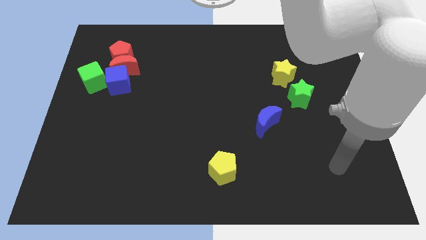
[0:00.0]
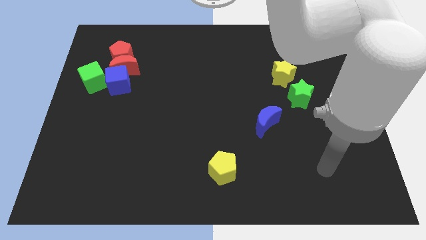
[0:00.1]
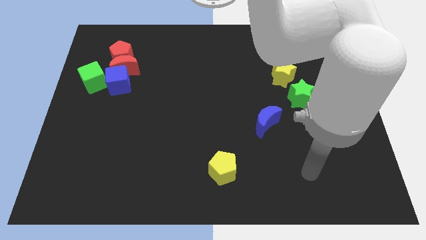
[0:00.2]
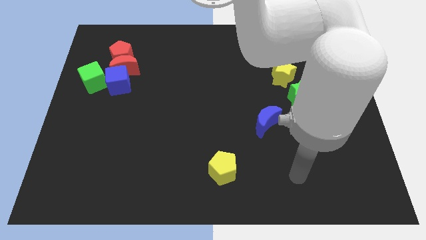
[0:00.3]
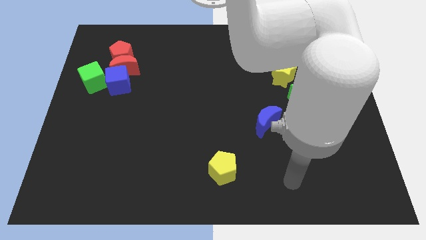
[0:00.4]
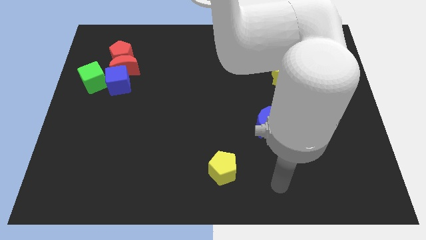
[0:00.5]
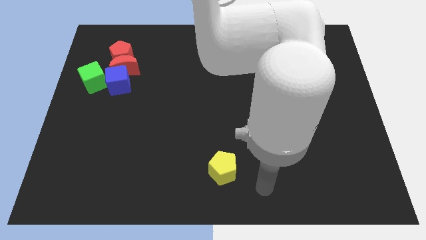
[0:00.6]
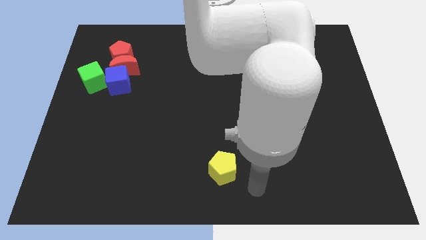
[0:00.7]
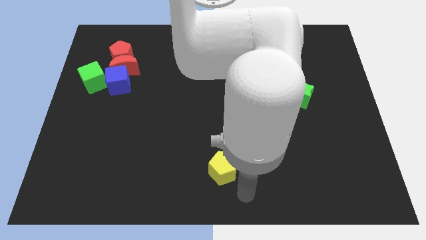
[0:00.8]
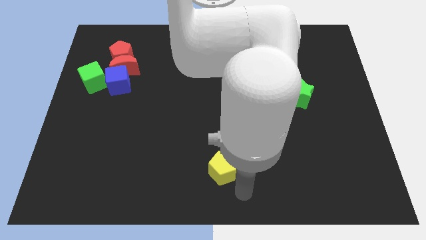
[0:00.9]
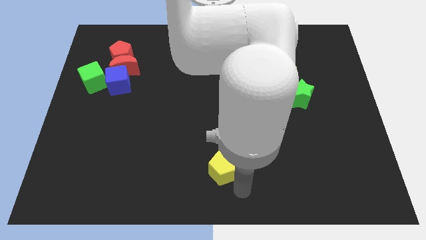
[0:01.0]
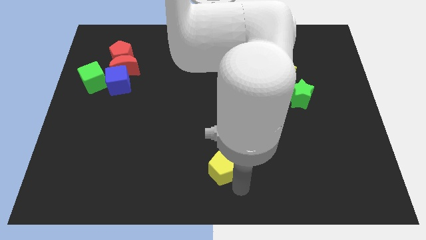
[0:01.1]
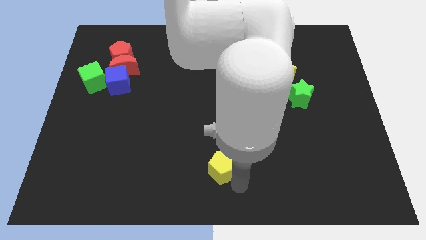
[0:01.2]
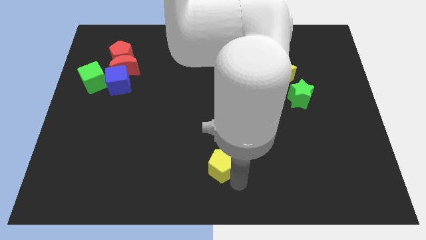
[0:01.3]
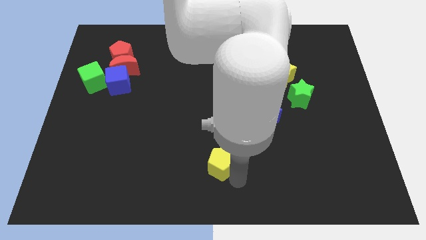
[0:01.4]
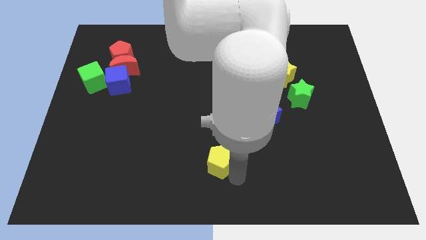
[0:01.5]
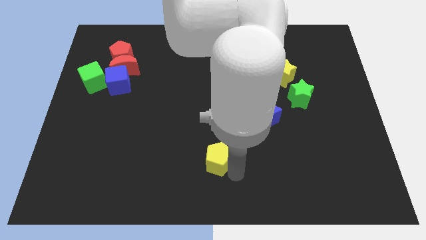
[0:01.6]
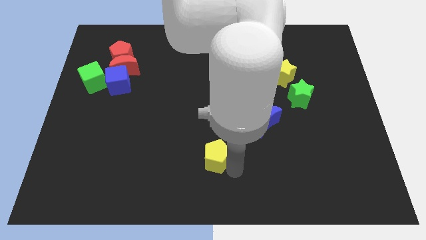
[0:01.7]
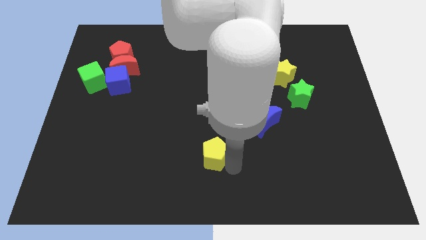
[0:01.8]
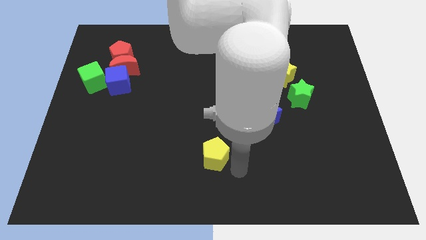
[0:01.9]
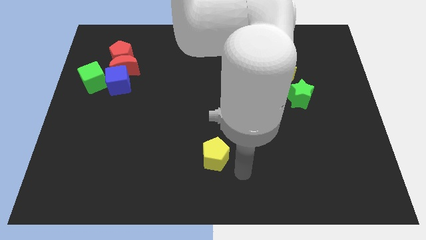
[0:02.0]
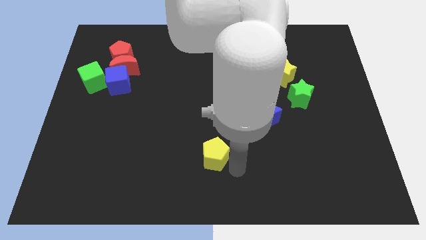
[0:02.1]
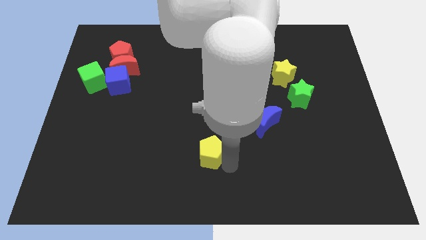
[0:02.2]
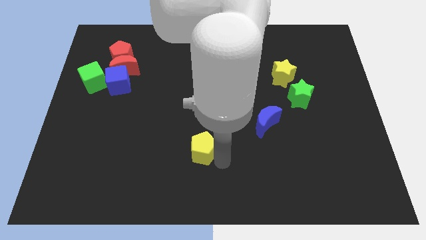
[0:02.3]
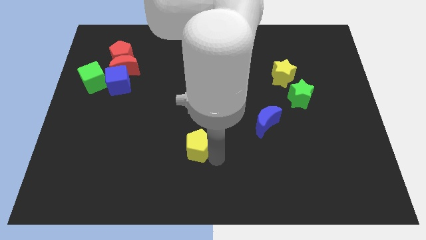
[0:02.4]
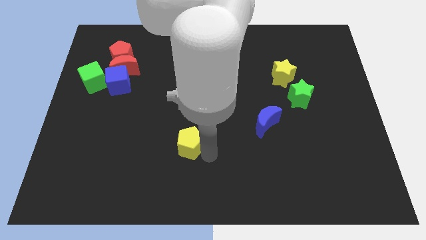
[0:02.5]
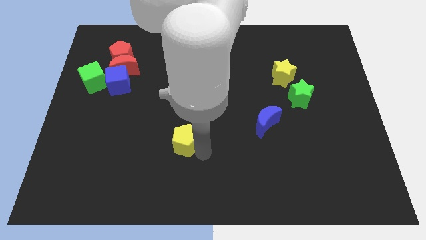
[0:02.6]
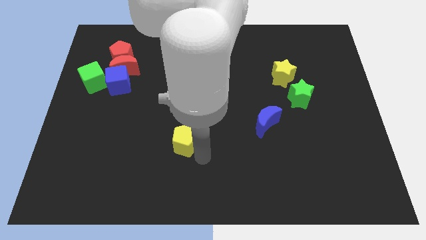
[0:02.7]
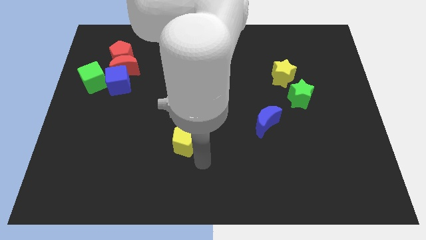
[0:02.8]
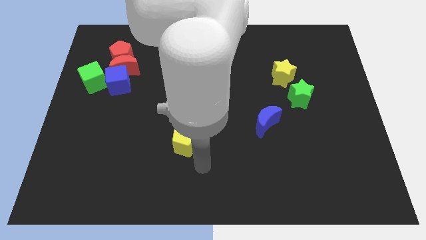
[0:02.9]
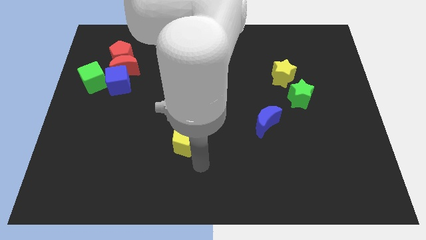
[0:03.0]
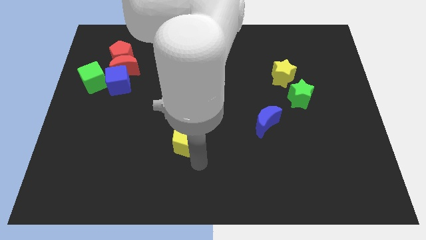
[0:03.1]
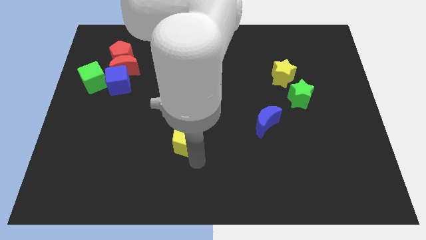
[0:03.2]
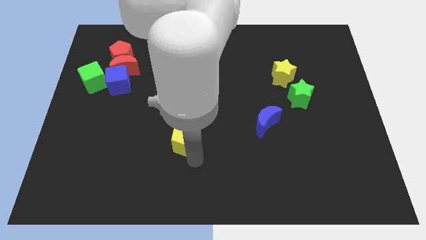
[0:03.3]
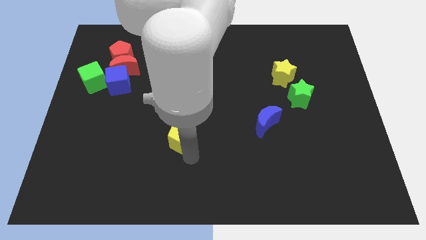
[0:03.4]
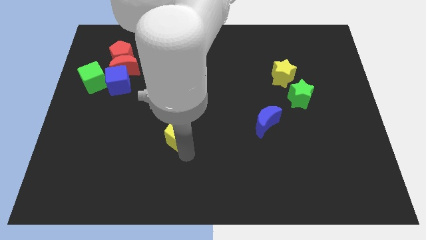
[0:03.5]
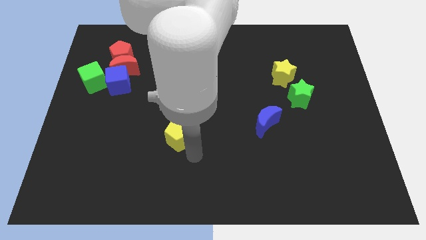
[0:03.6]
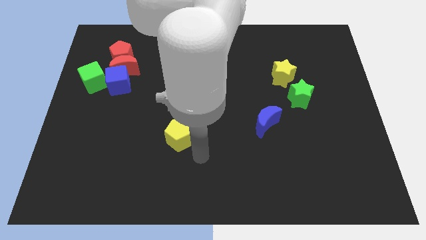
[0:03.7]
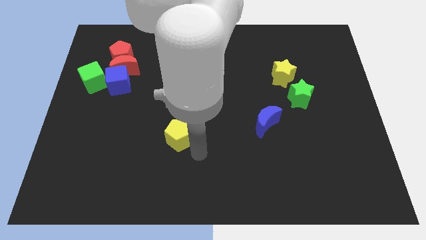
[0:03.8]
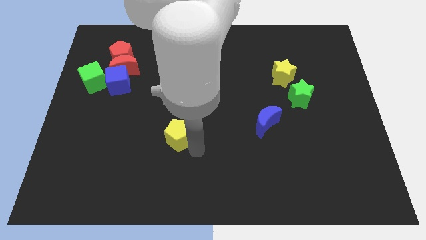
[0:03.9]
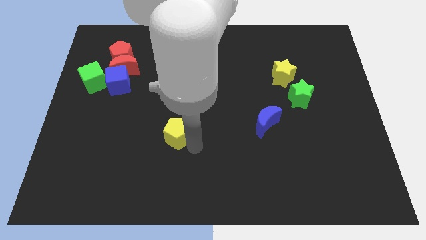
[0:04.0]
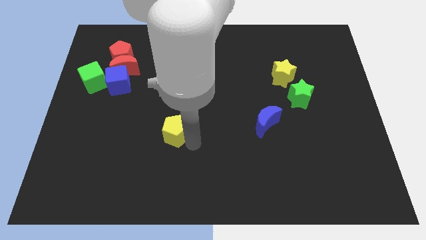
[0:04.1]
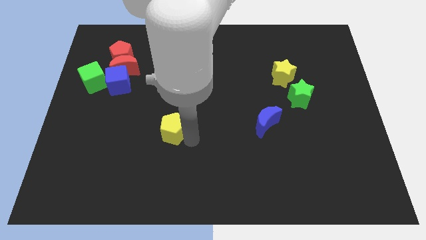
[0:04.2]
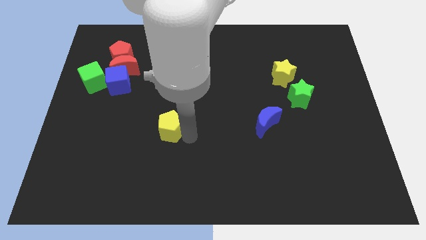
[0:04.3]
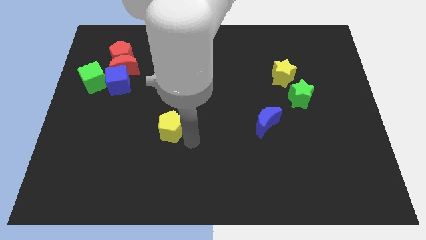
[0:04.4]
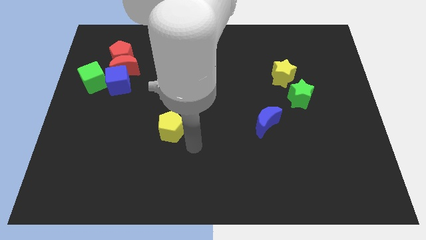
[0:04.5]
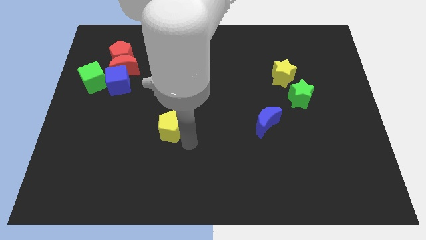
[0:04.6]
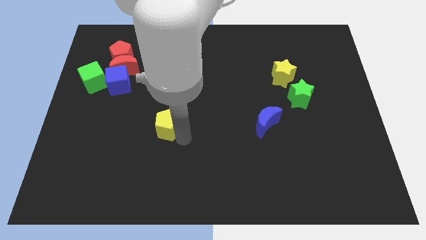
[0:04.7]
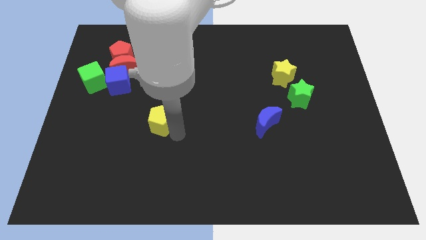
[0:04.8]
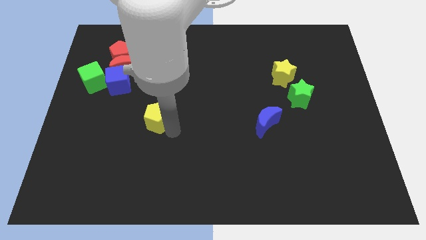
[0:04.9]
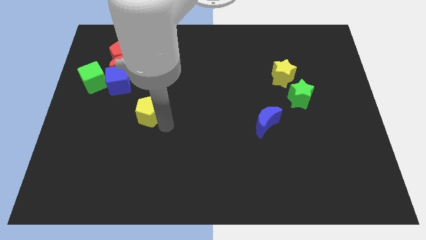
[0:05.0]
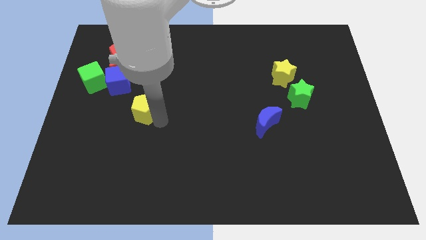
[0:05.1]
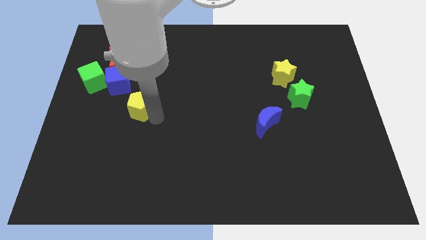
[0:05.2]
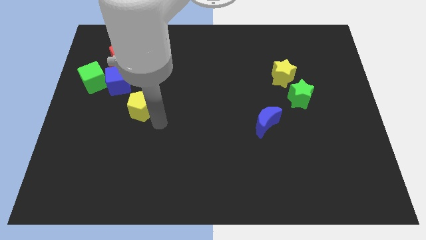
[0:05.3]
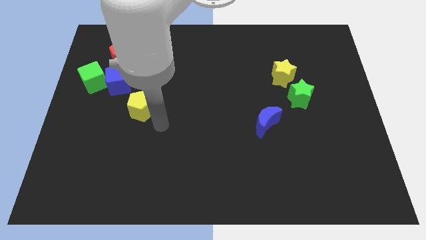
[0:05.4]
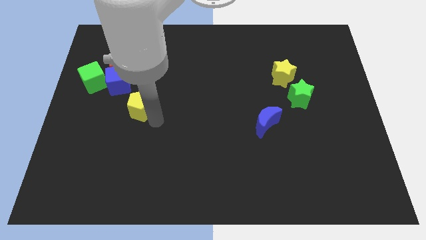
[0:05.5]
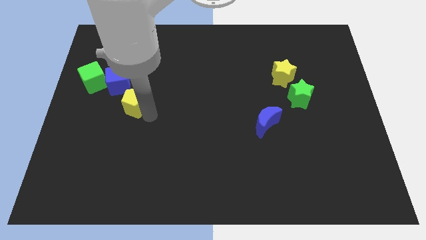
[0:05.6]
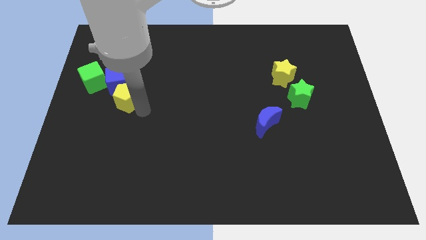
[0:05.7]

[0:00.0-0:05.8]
slide the yellow pentagon to the bottom of the red pentagon

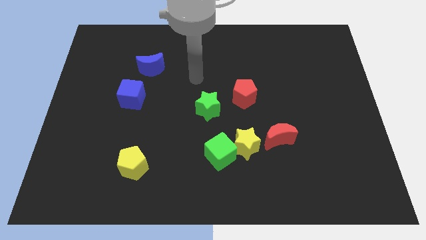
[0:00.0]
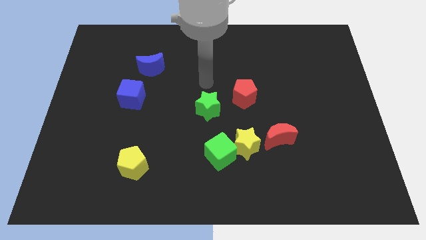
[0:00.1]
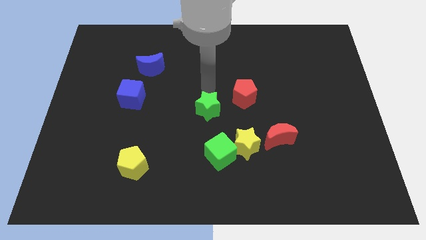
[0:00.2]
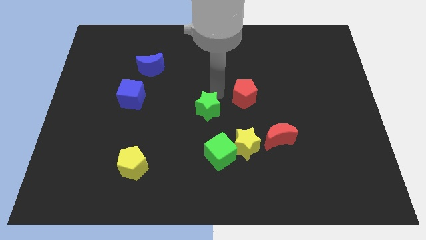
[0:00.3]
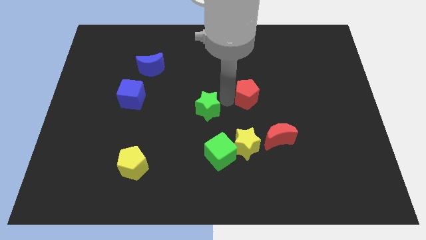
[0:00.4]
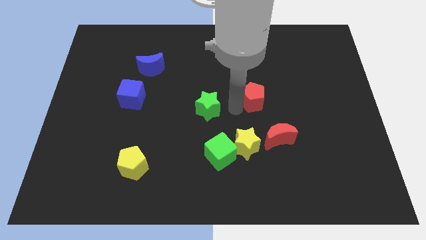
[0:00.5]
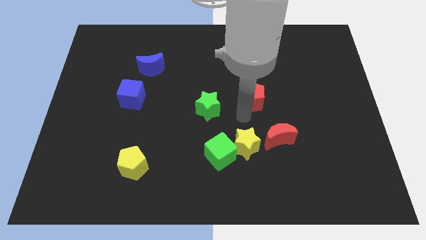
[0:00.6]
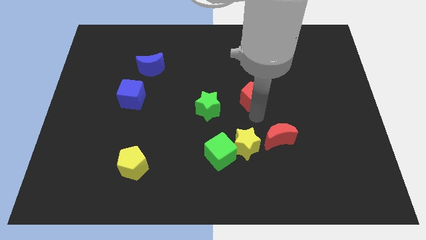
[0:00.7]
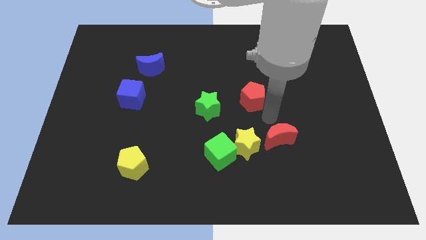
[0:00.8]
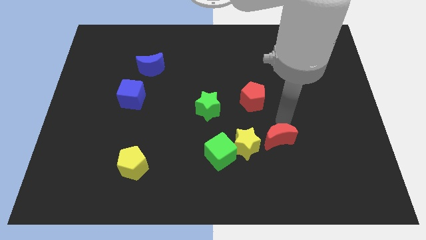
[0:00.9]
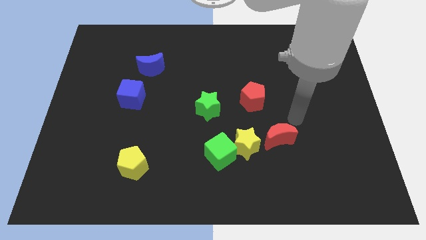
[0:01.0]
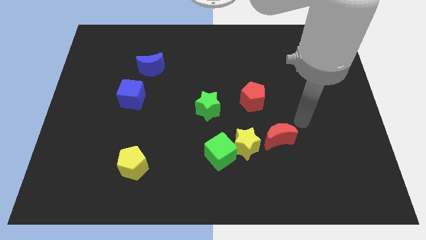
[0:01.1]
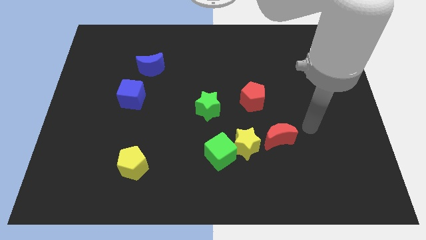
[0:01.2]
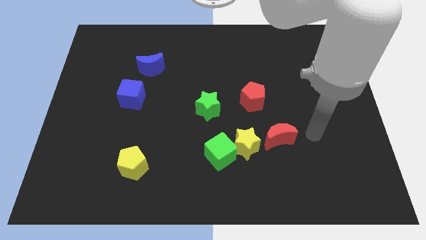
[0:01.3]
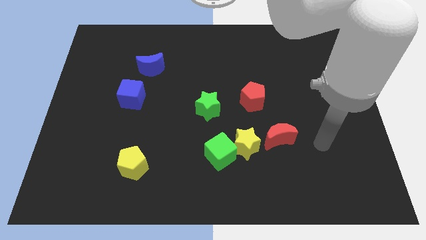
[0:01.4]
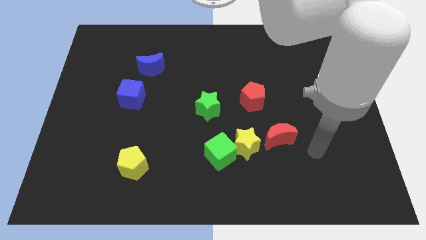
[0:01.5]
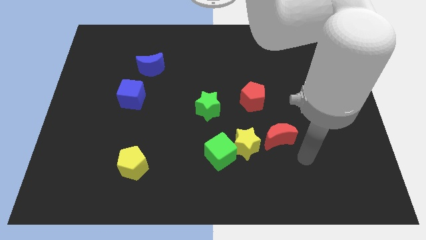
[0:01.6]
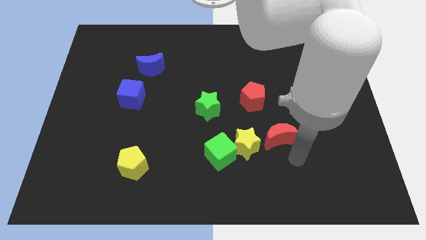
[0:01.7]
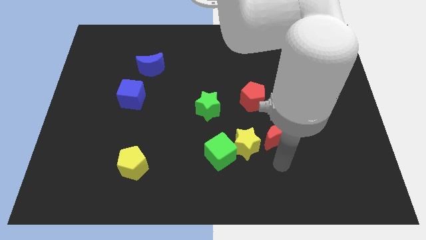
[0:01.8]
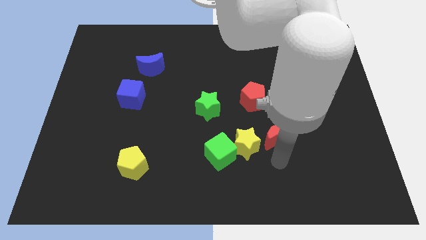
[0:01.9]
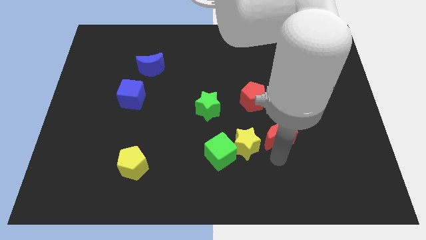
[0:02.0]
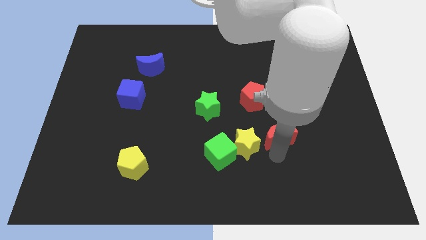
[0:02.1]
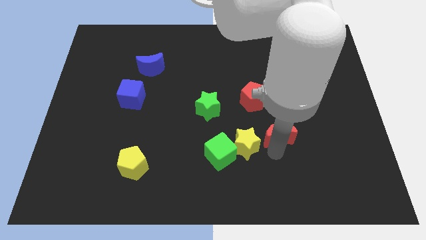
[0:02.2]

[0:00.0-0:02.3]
move the red moon to the bottom right of the red pentagon

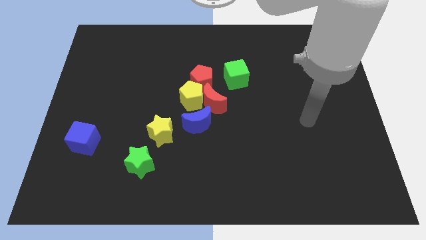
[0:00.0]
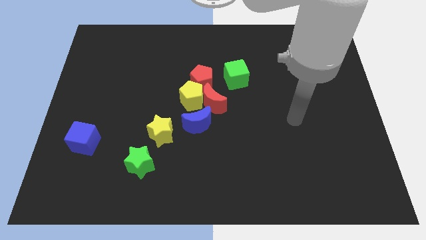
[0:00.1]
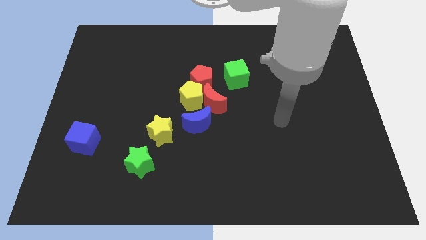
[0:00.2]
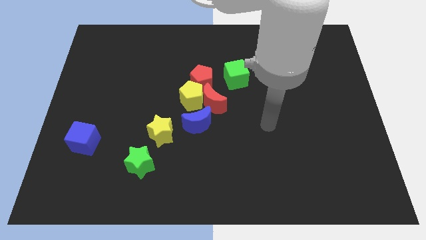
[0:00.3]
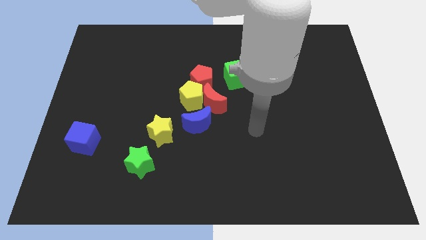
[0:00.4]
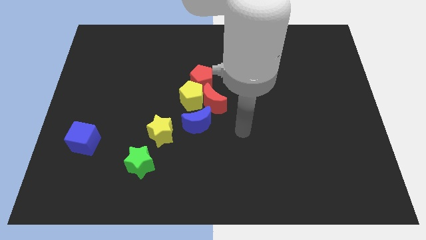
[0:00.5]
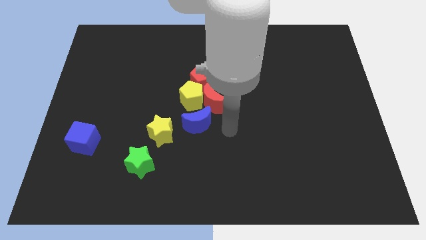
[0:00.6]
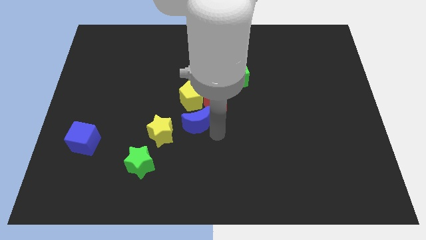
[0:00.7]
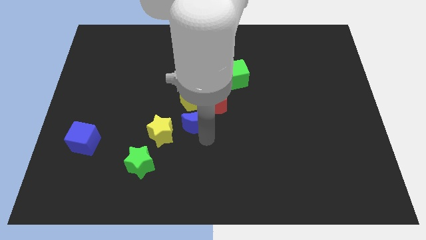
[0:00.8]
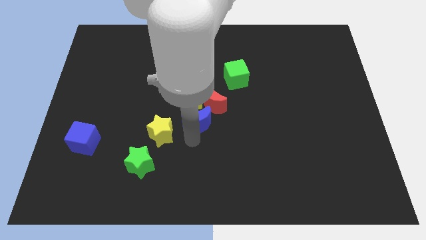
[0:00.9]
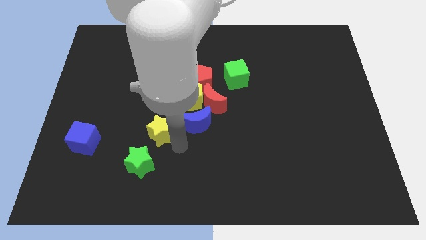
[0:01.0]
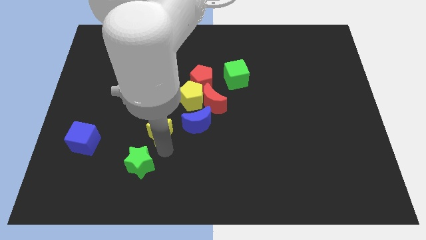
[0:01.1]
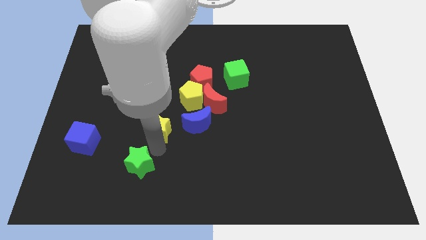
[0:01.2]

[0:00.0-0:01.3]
put the blue cube just left of the yellow star
